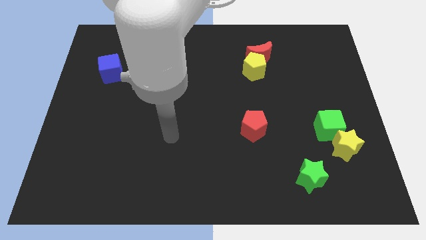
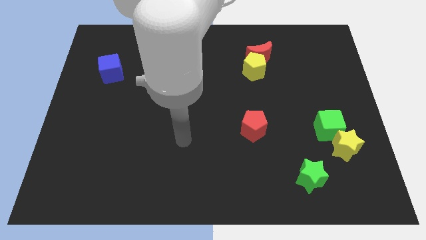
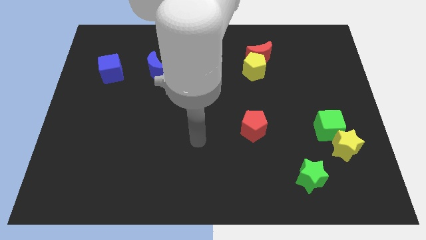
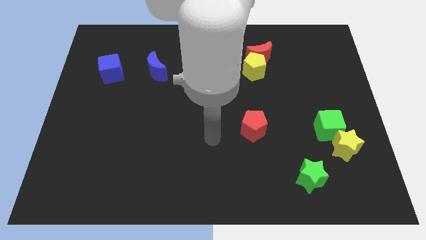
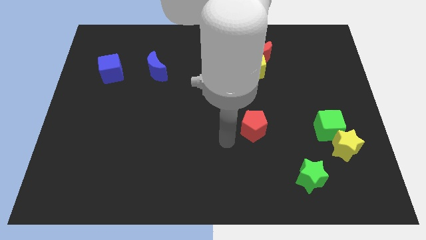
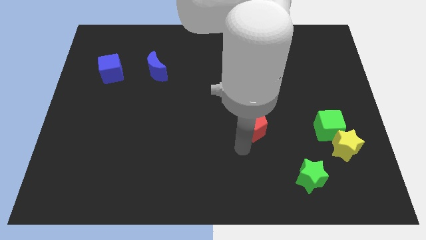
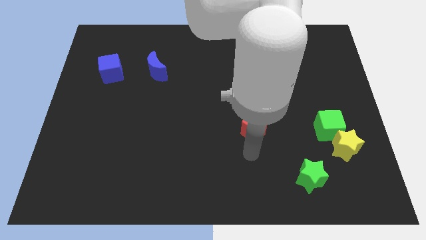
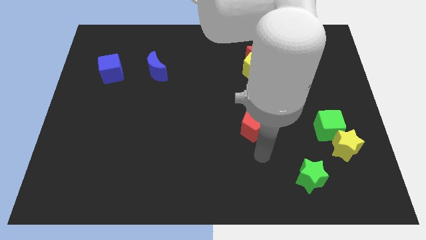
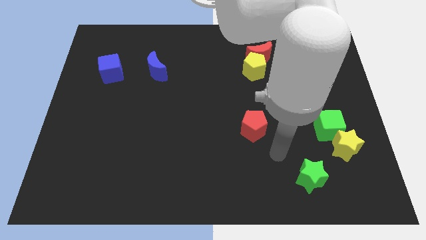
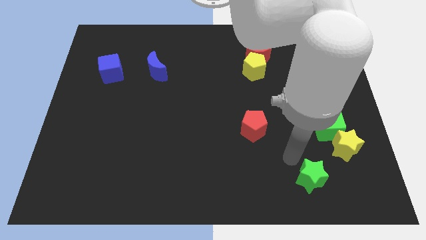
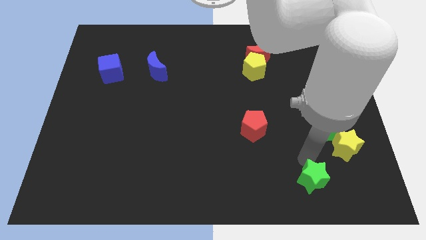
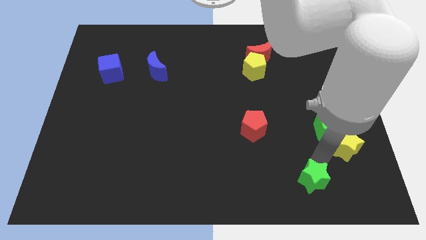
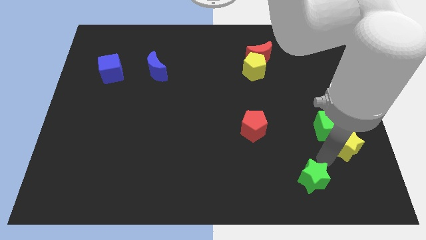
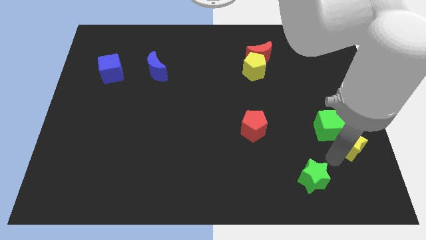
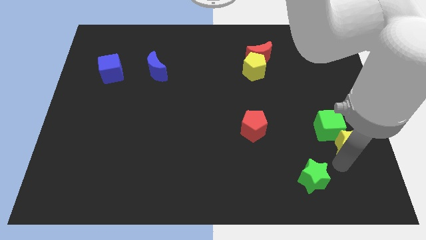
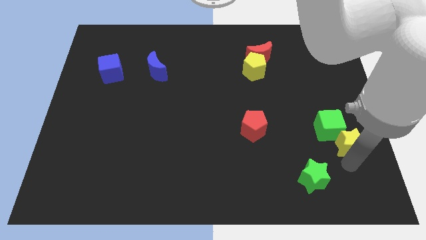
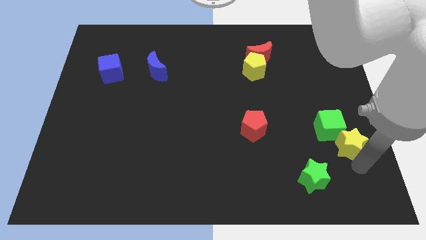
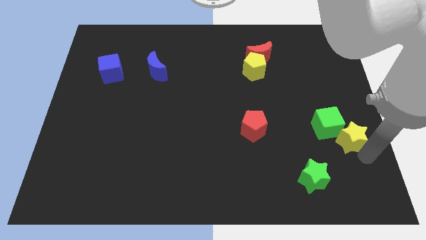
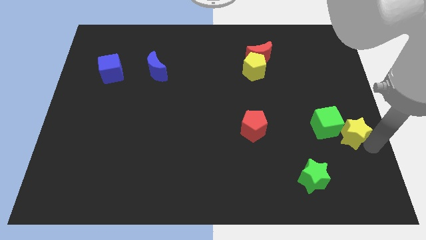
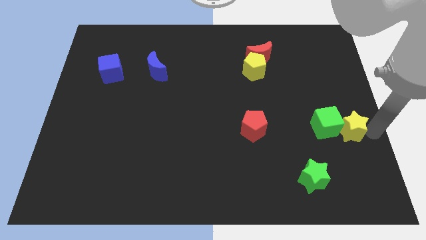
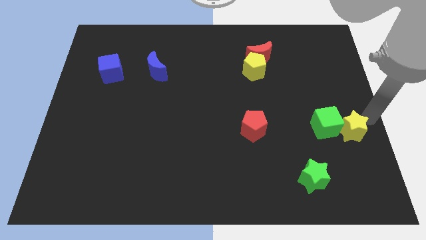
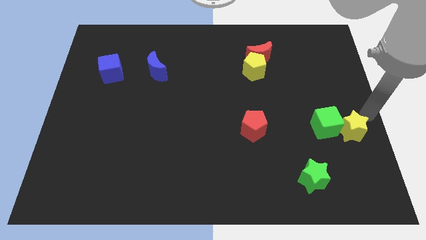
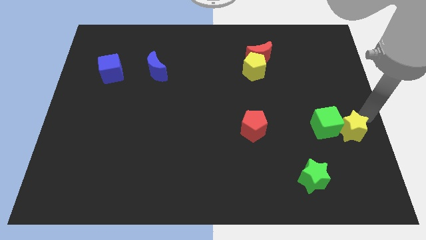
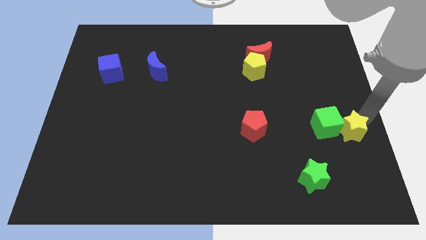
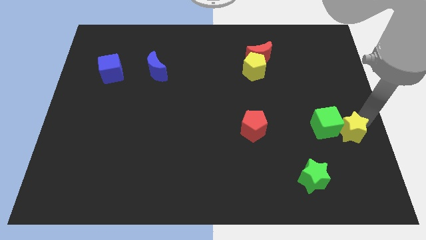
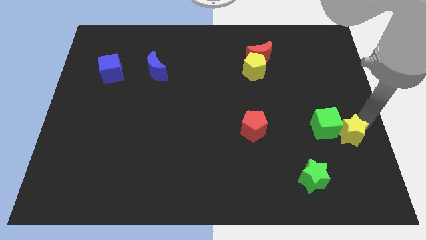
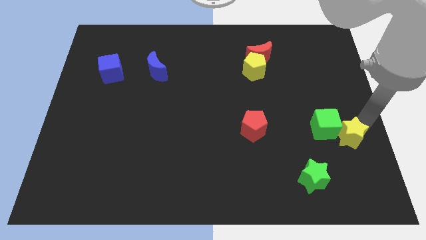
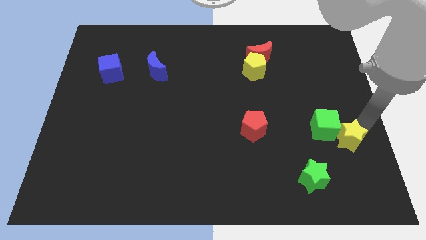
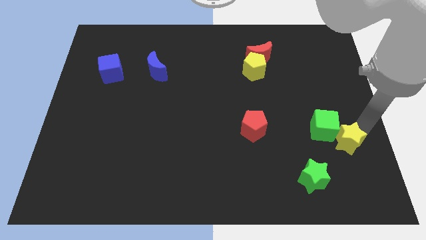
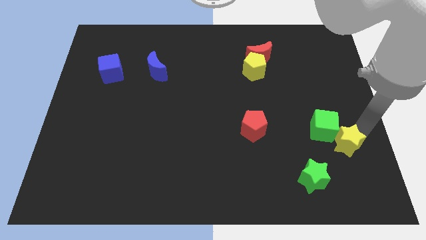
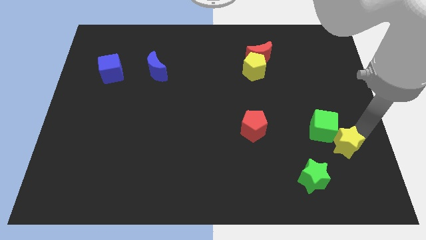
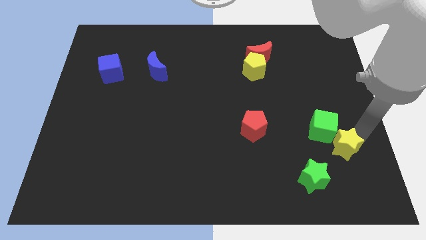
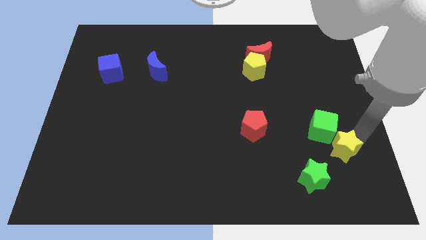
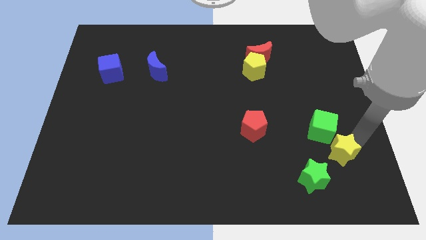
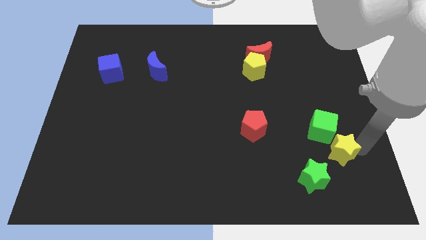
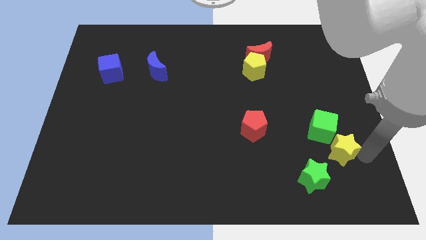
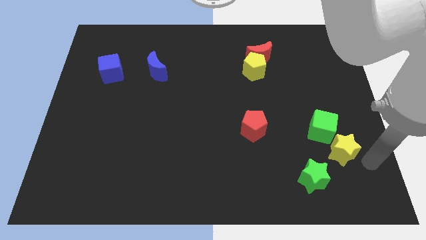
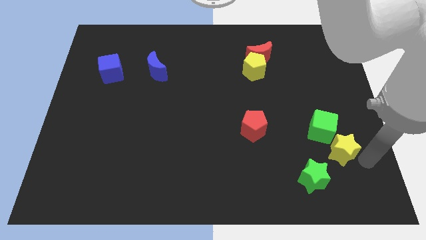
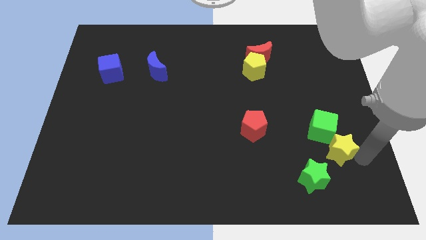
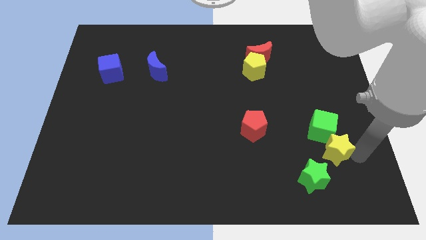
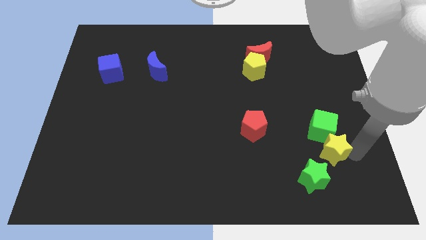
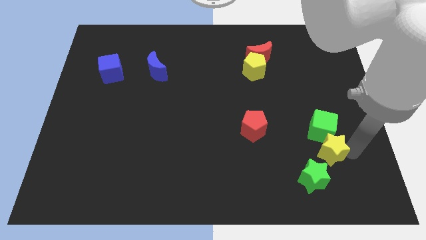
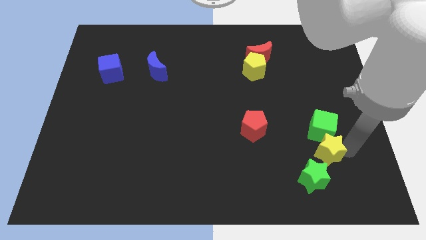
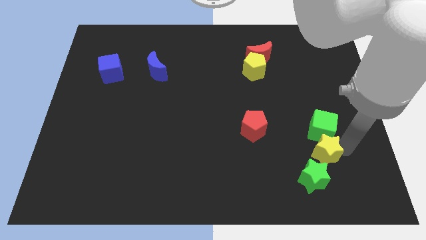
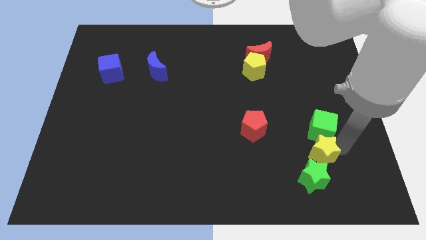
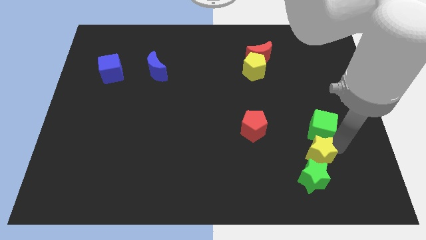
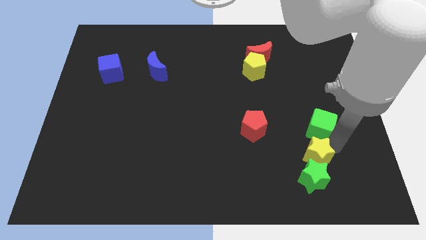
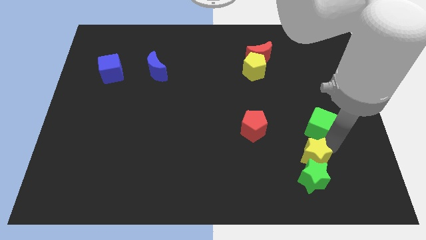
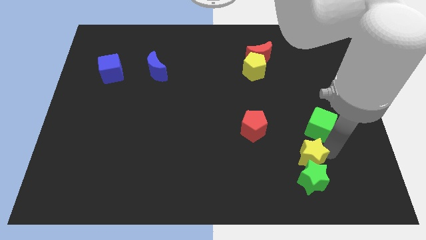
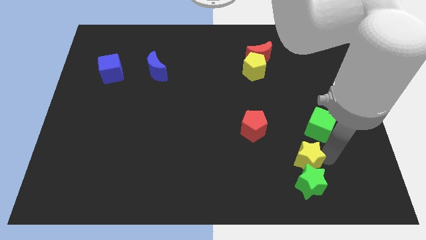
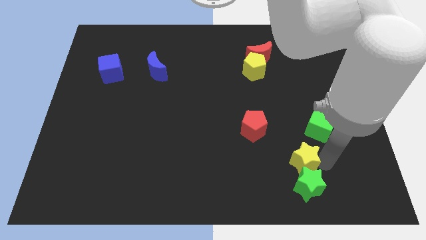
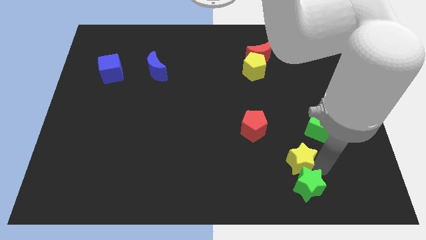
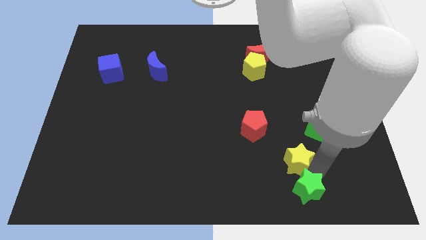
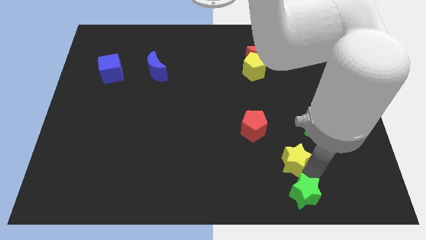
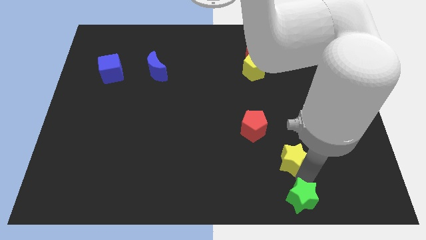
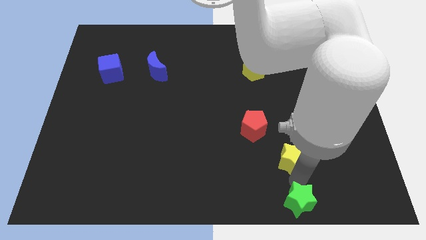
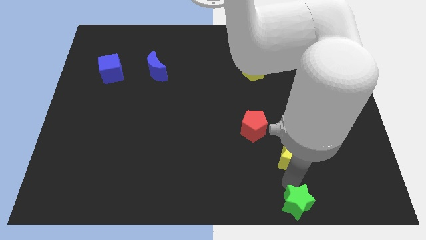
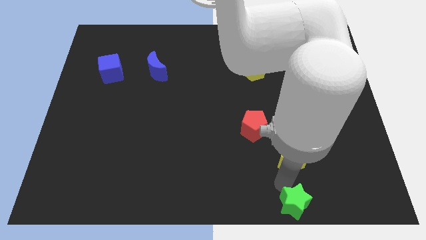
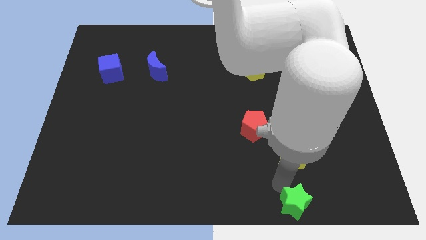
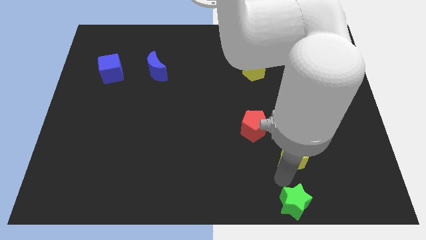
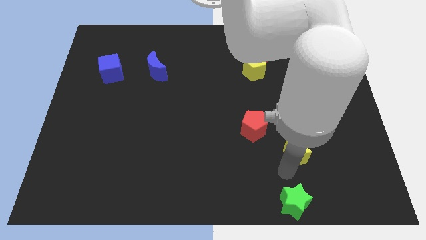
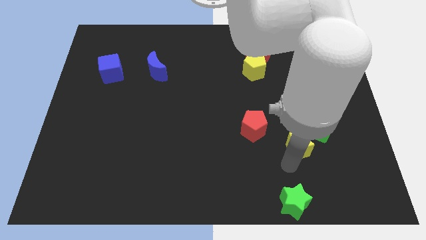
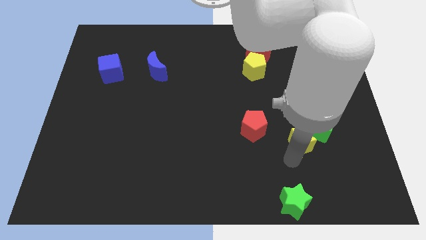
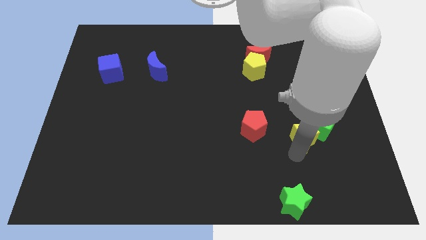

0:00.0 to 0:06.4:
slightly push the yellow star diagonally up and to the left

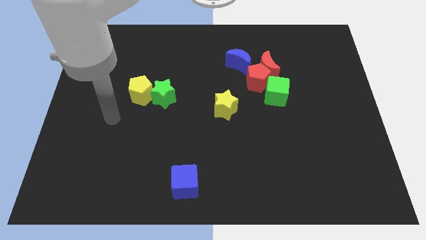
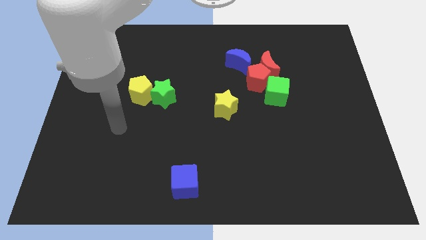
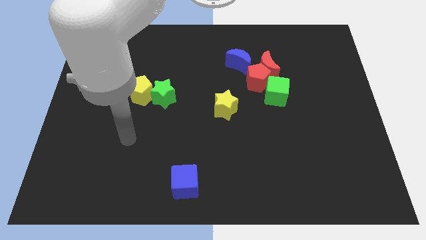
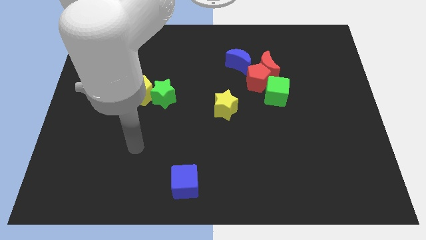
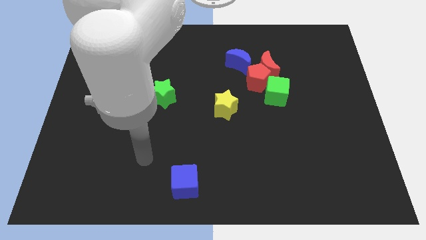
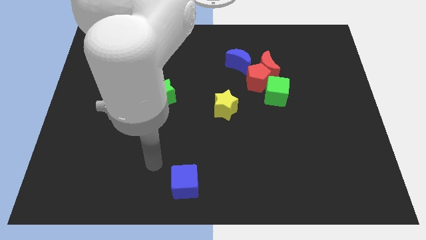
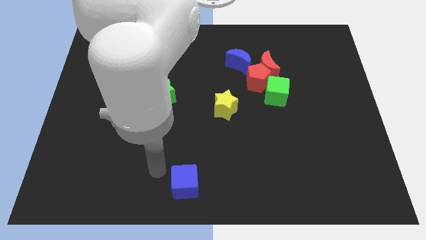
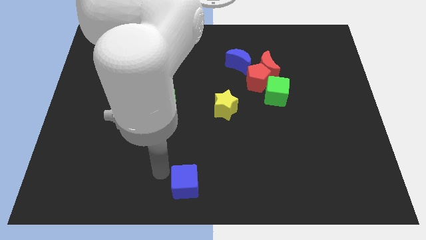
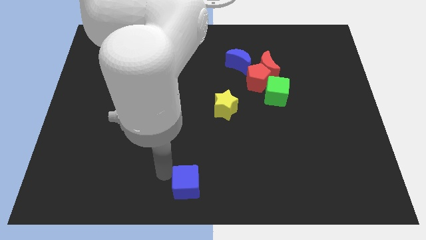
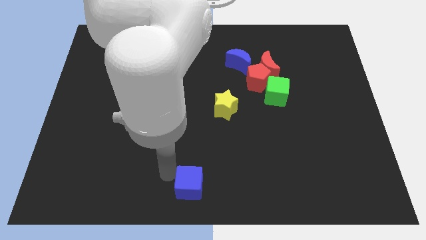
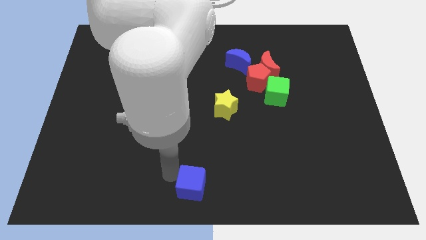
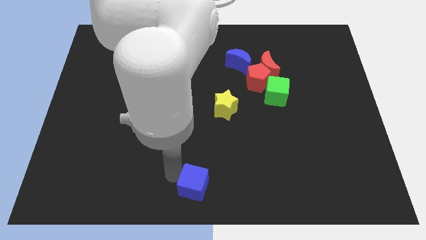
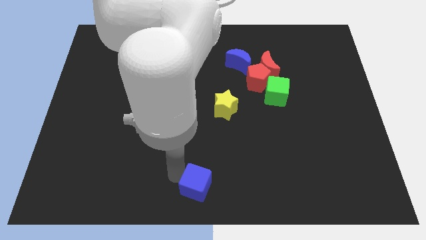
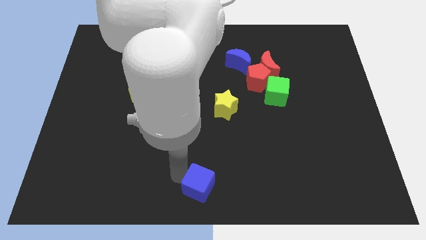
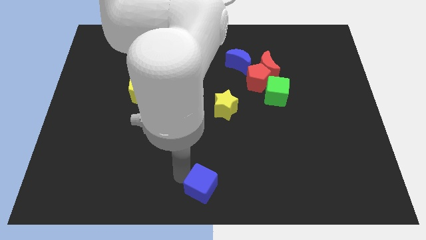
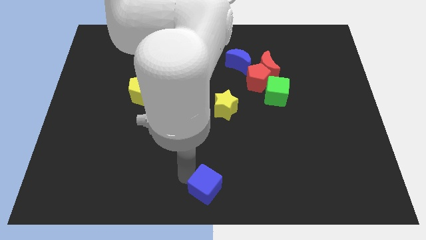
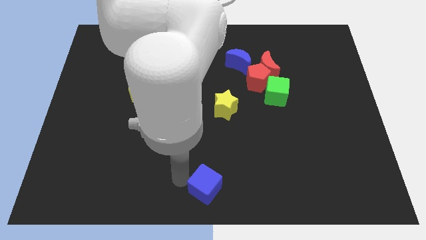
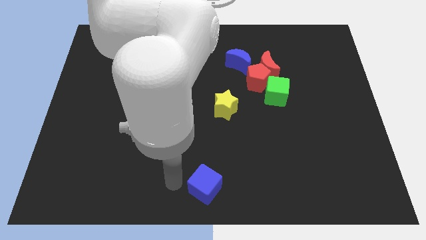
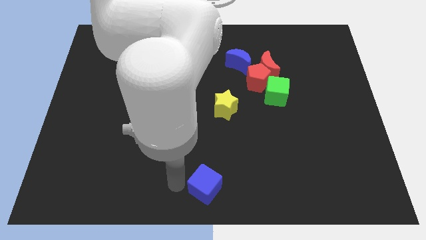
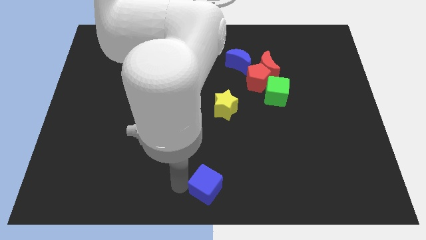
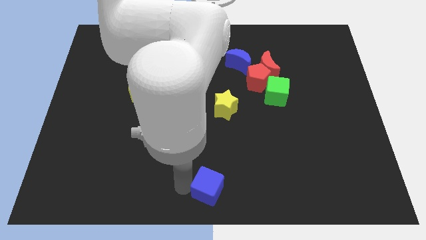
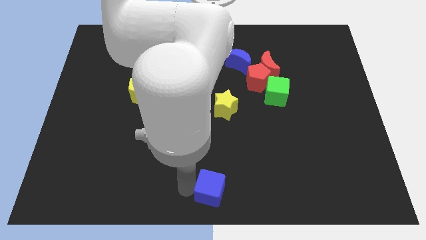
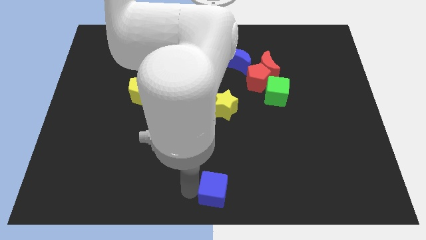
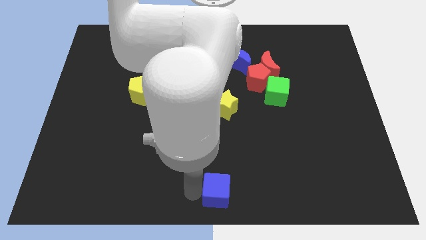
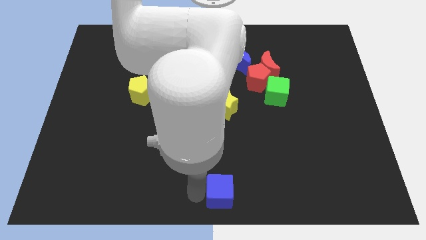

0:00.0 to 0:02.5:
push the blue cube right a little
